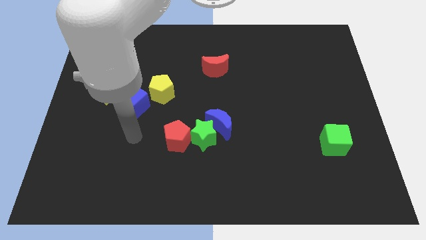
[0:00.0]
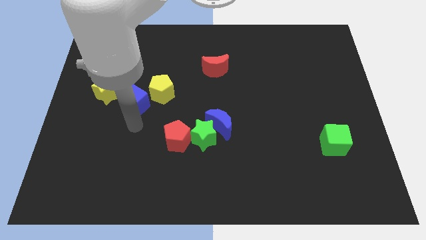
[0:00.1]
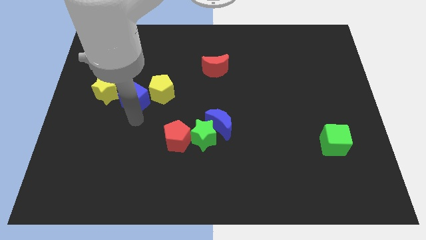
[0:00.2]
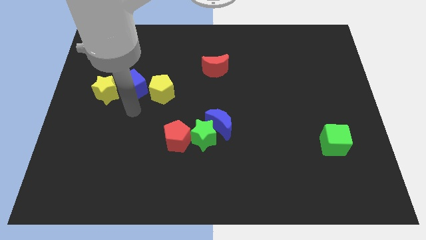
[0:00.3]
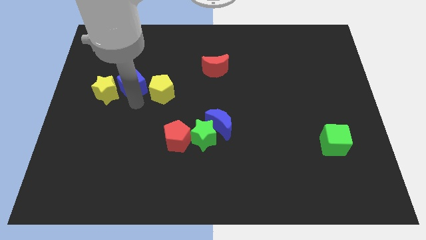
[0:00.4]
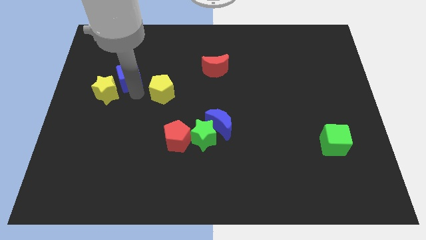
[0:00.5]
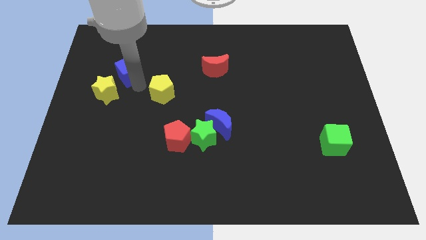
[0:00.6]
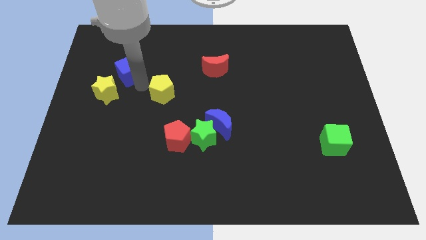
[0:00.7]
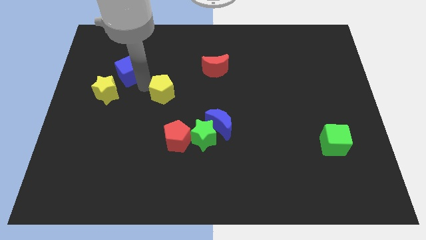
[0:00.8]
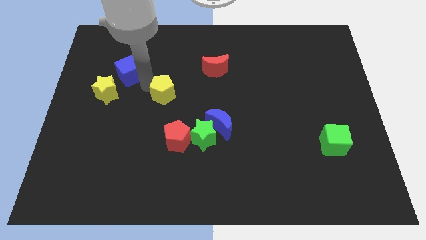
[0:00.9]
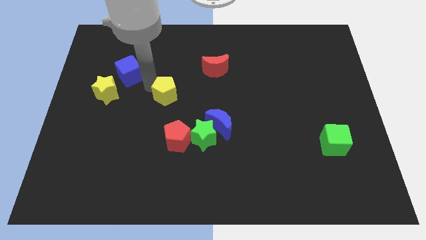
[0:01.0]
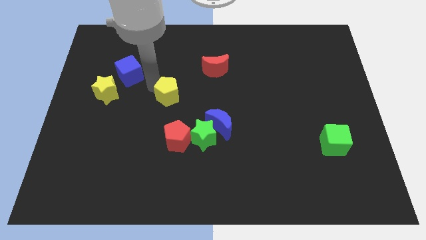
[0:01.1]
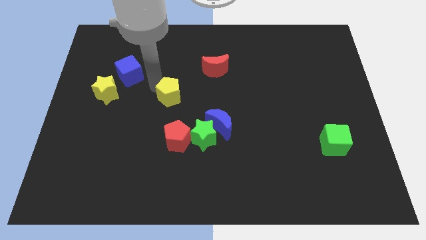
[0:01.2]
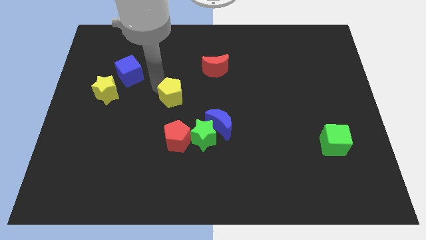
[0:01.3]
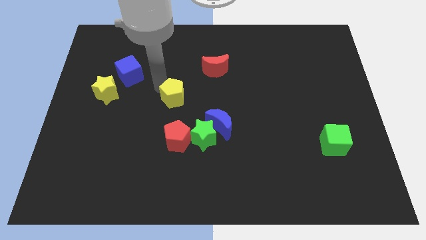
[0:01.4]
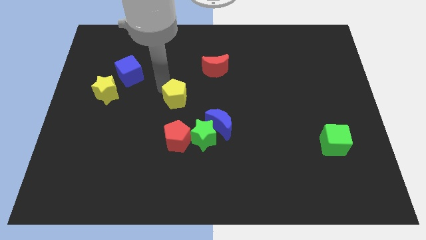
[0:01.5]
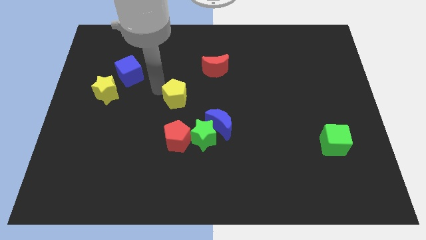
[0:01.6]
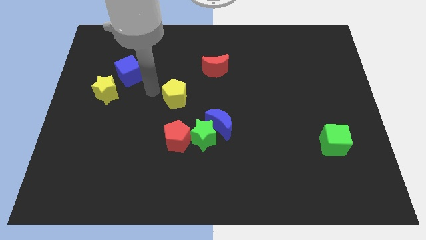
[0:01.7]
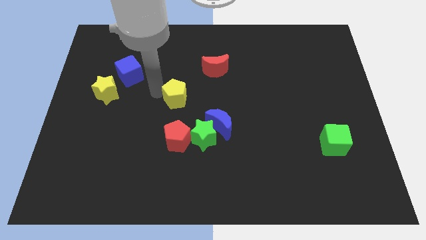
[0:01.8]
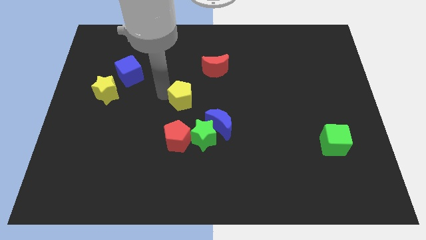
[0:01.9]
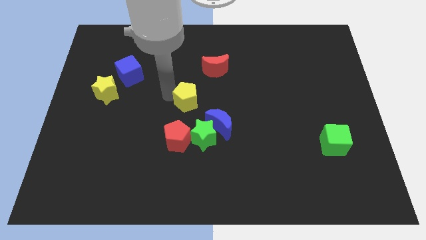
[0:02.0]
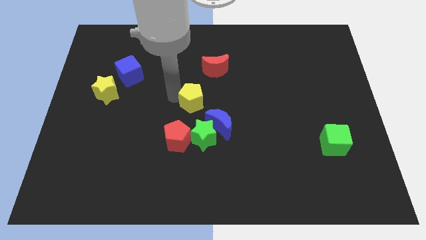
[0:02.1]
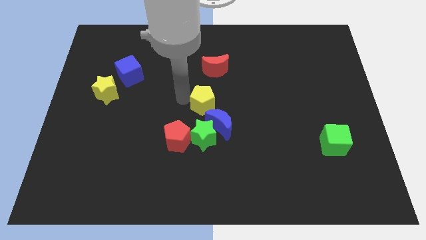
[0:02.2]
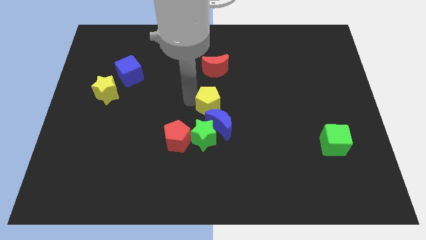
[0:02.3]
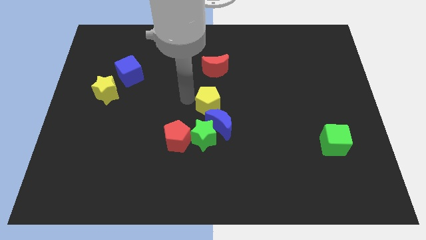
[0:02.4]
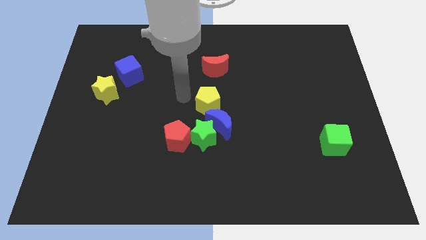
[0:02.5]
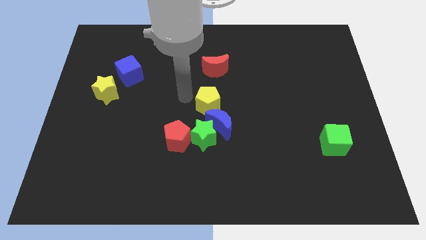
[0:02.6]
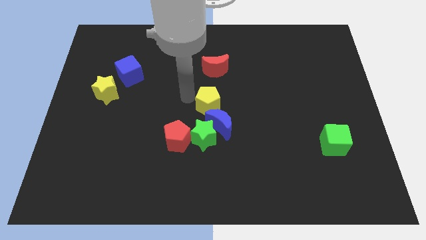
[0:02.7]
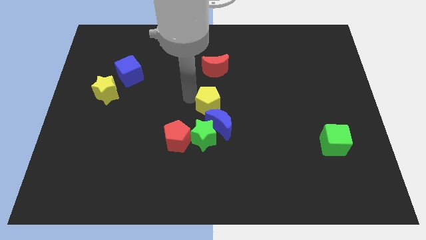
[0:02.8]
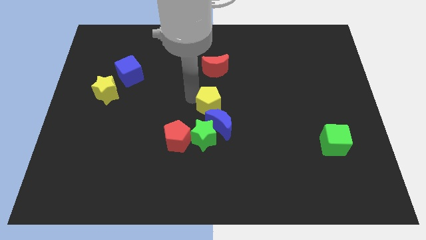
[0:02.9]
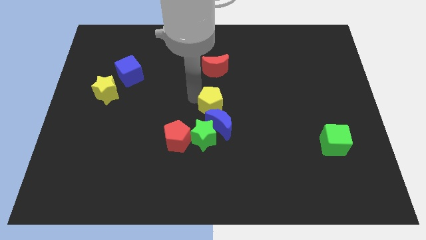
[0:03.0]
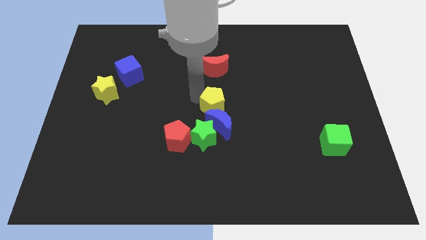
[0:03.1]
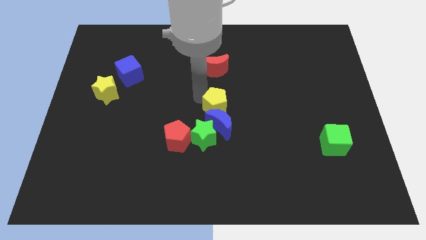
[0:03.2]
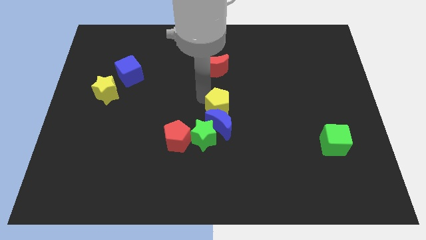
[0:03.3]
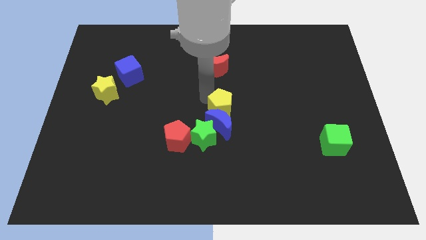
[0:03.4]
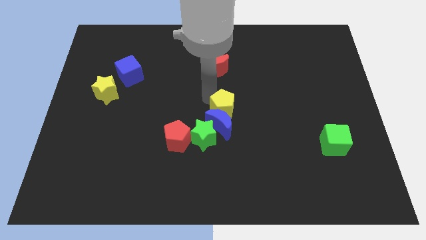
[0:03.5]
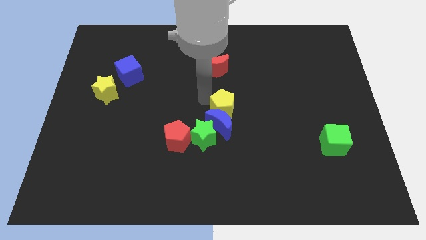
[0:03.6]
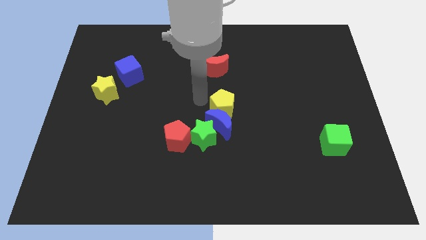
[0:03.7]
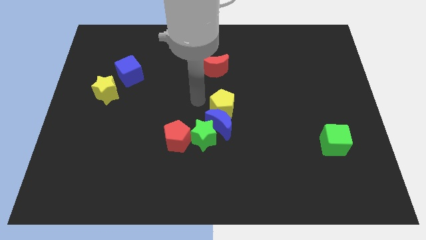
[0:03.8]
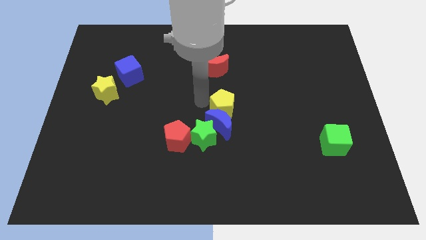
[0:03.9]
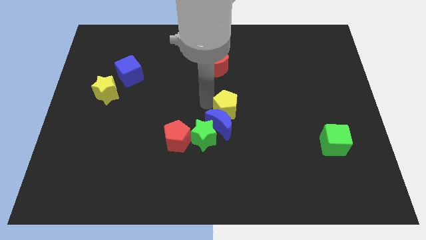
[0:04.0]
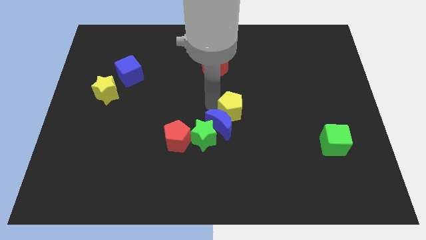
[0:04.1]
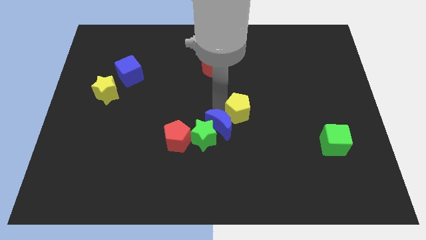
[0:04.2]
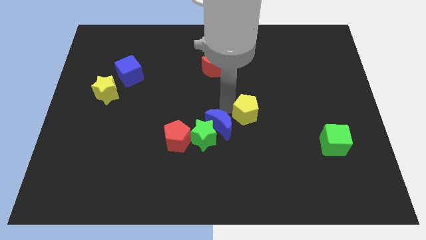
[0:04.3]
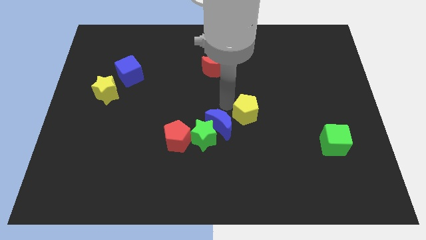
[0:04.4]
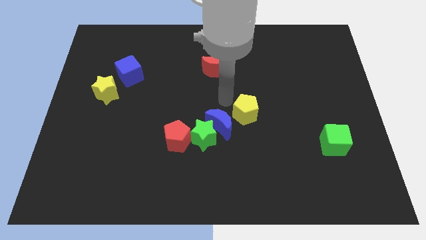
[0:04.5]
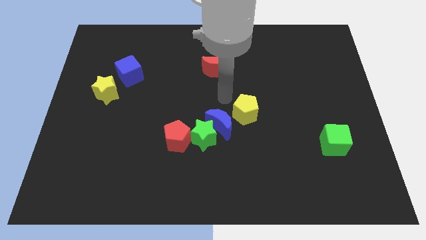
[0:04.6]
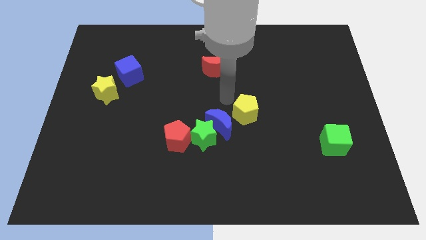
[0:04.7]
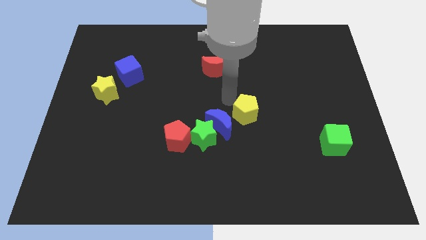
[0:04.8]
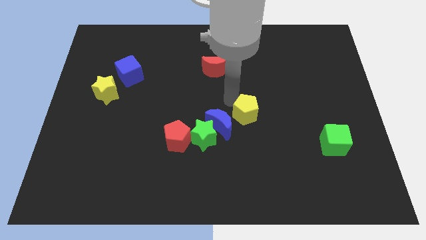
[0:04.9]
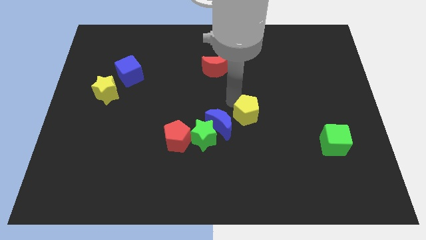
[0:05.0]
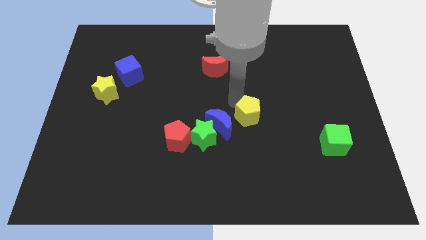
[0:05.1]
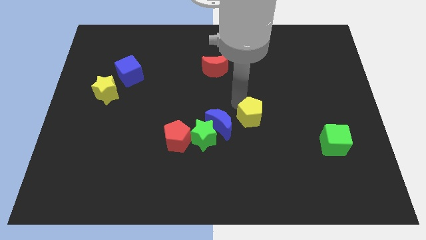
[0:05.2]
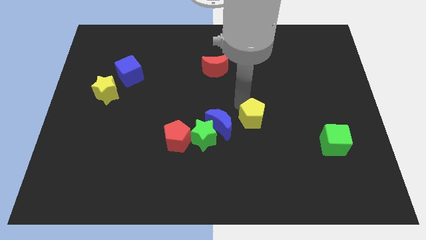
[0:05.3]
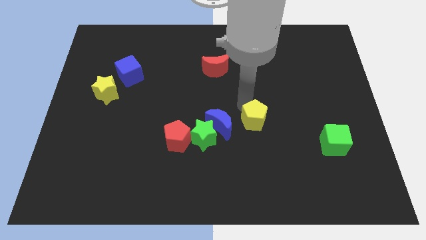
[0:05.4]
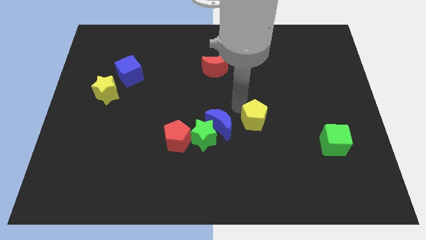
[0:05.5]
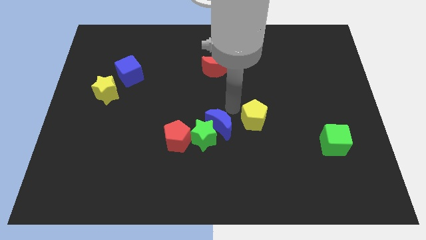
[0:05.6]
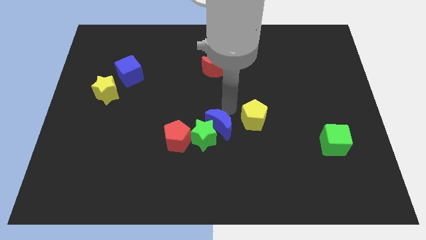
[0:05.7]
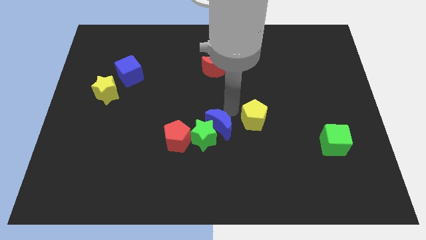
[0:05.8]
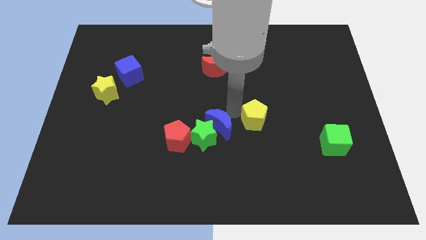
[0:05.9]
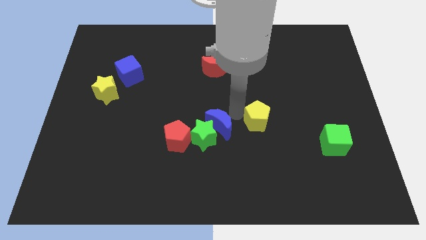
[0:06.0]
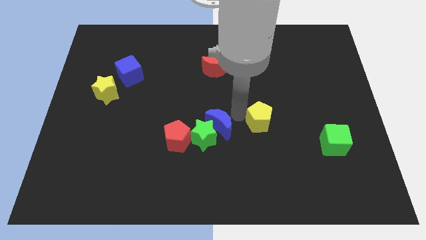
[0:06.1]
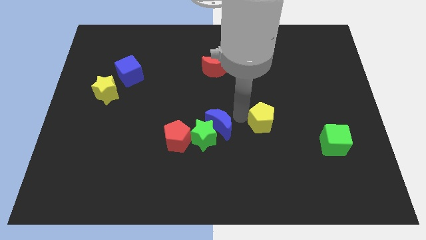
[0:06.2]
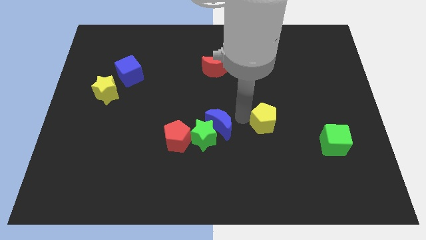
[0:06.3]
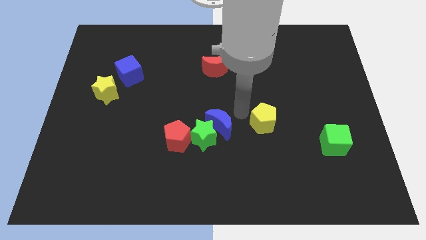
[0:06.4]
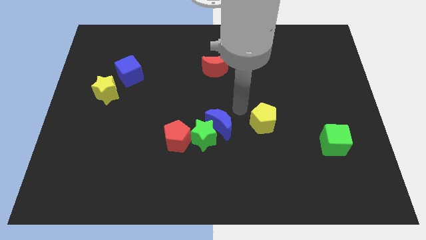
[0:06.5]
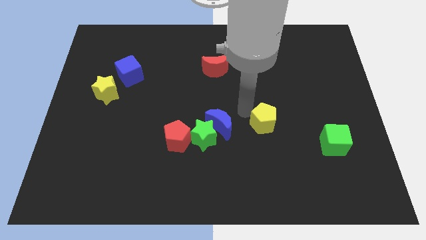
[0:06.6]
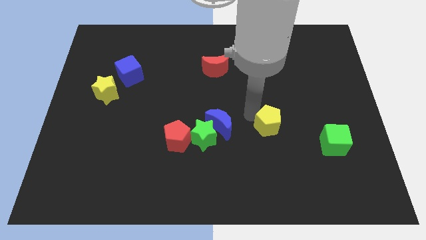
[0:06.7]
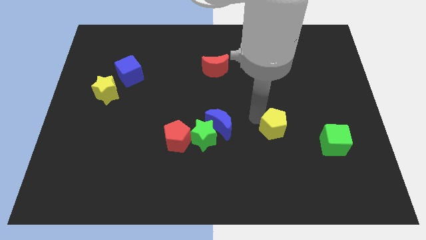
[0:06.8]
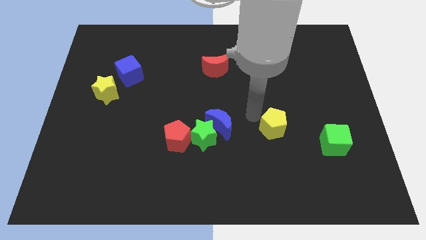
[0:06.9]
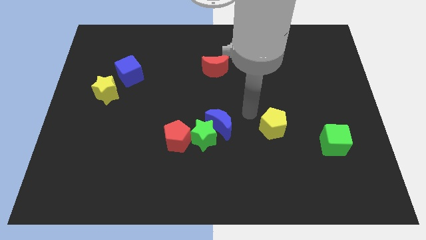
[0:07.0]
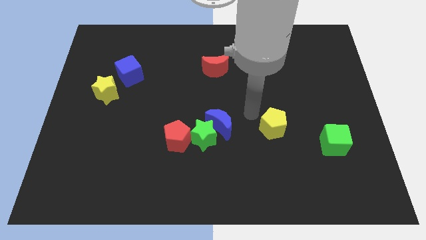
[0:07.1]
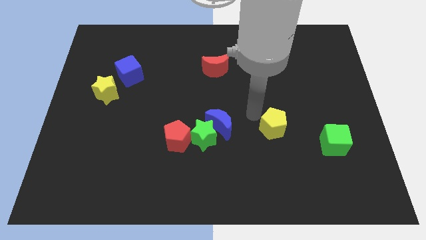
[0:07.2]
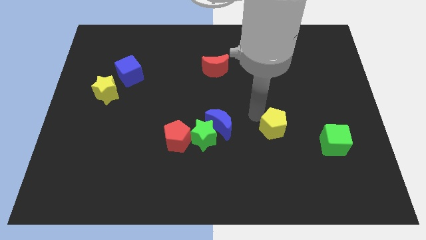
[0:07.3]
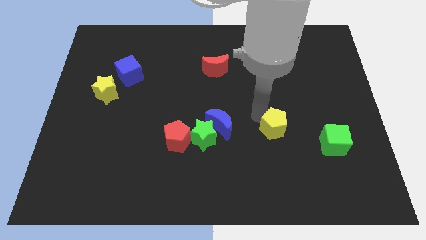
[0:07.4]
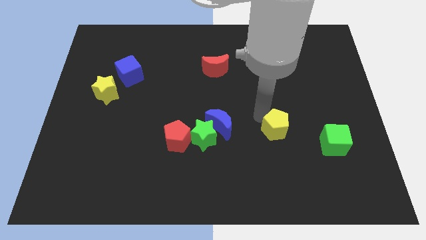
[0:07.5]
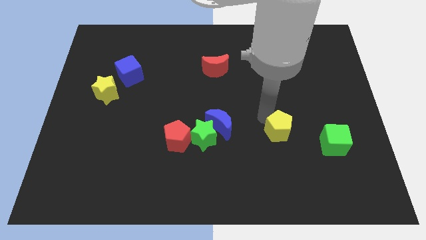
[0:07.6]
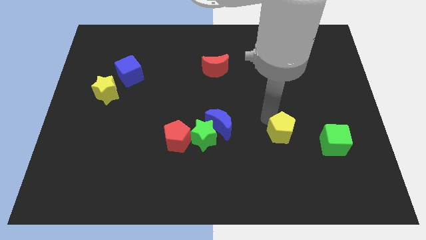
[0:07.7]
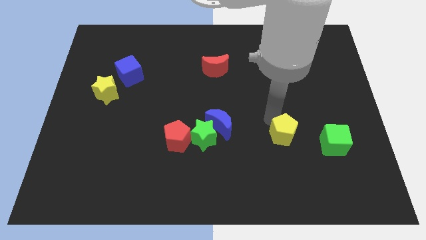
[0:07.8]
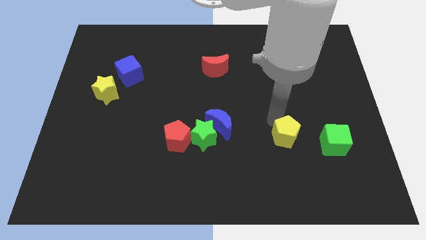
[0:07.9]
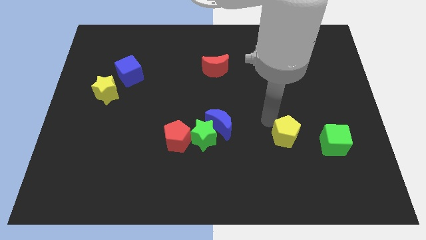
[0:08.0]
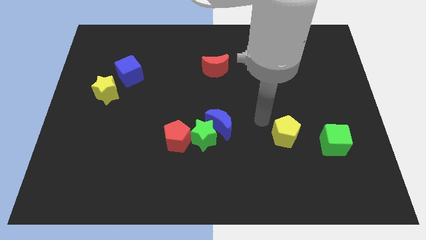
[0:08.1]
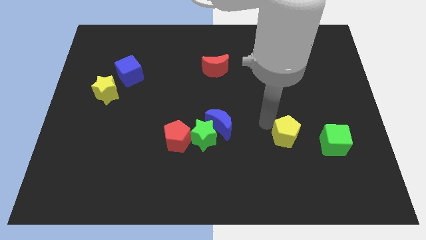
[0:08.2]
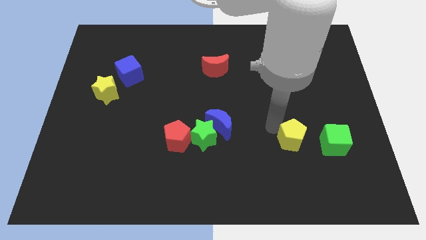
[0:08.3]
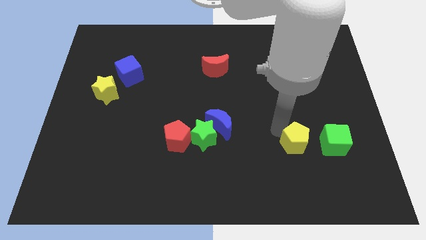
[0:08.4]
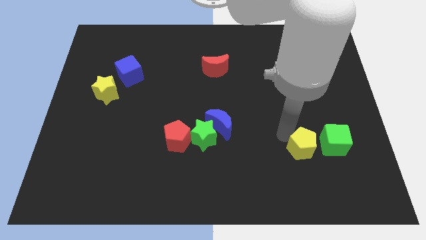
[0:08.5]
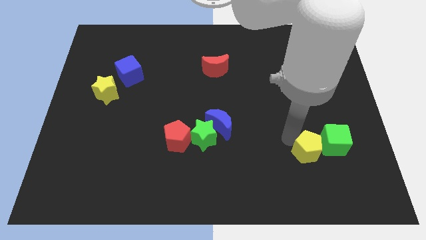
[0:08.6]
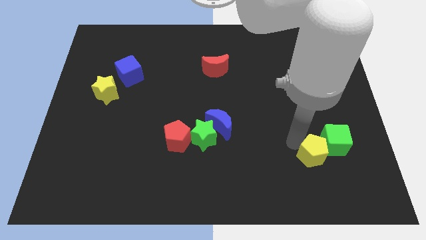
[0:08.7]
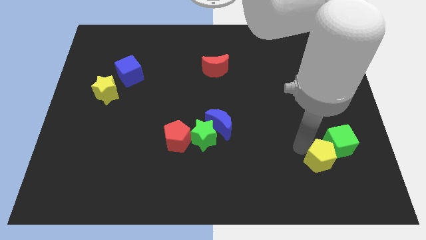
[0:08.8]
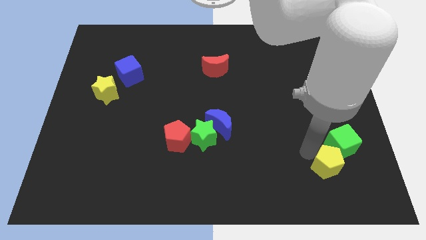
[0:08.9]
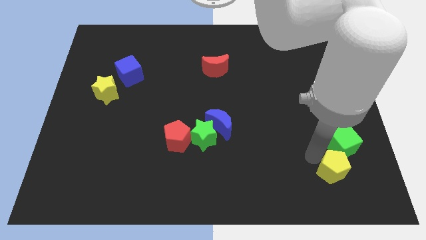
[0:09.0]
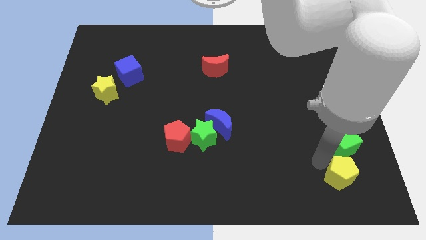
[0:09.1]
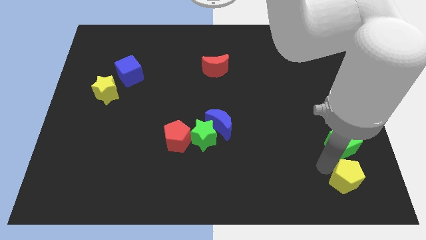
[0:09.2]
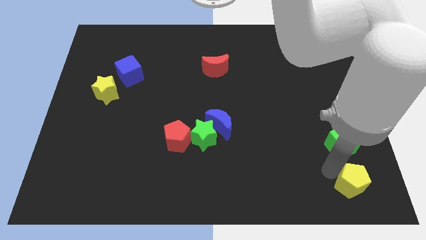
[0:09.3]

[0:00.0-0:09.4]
put the yellow pentagon to the bottom right
